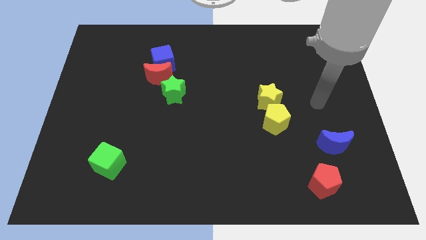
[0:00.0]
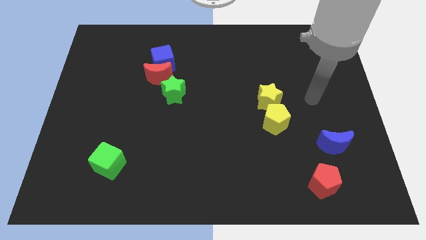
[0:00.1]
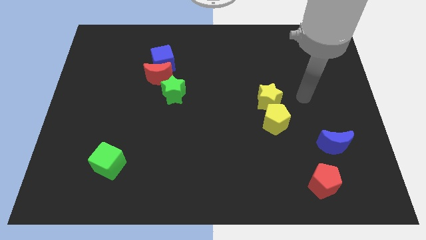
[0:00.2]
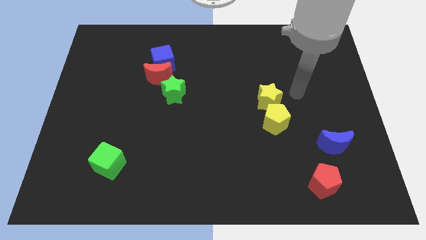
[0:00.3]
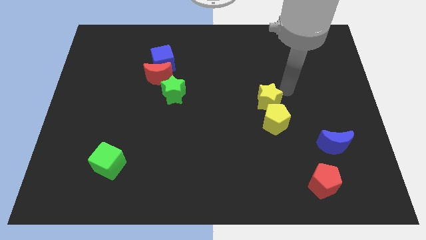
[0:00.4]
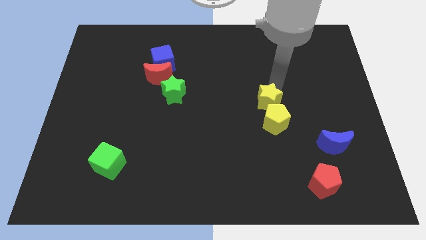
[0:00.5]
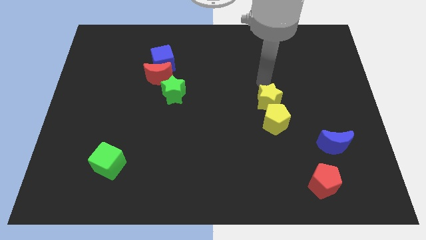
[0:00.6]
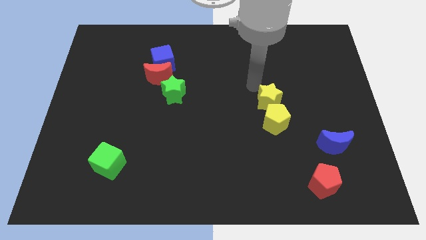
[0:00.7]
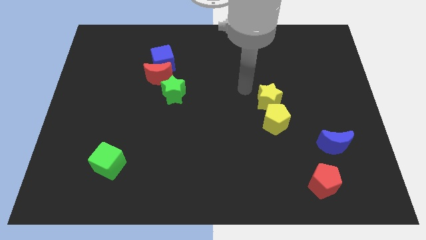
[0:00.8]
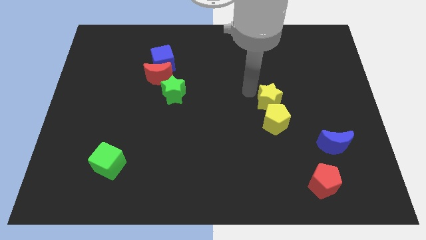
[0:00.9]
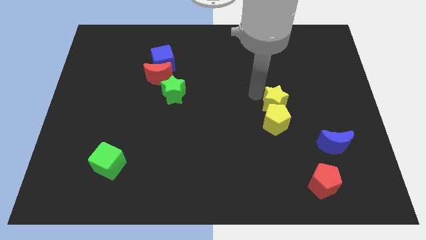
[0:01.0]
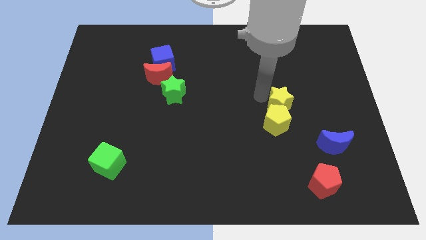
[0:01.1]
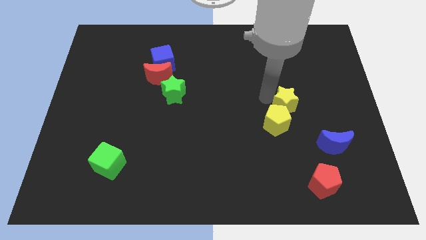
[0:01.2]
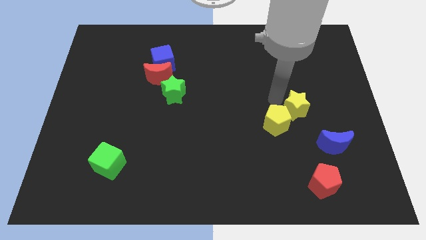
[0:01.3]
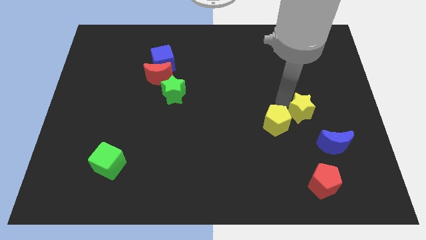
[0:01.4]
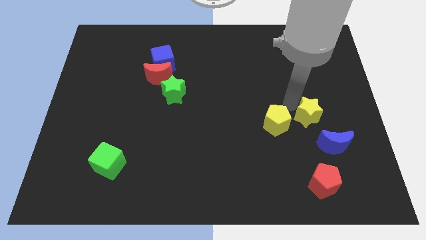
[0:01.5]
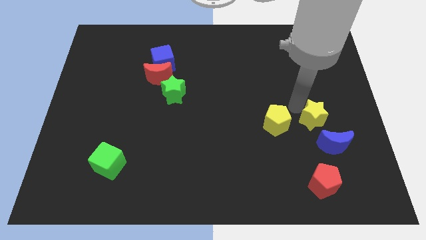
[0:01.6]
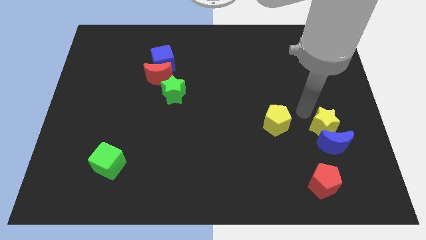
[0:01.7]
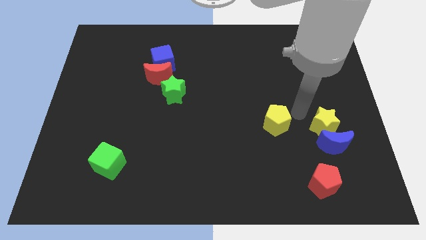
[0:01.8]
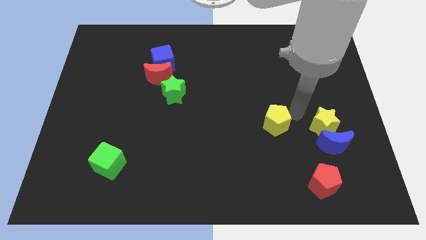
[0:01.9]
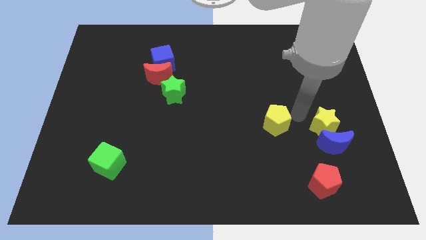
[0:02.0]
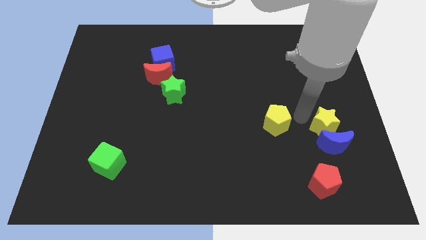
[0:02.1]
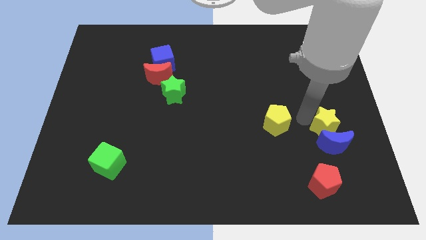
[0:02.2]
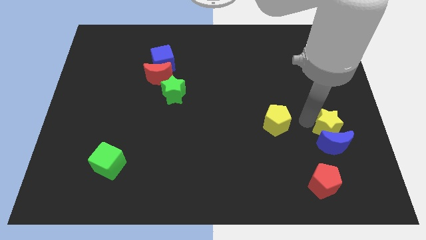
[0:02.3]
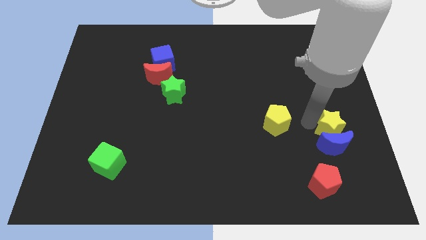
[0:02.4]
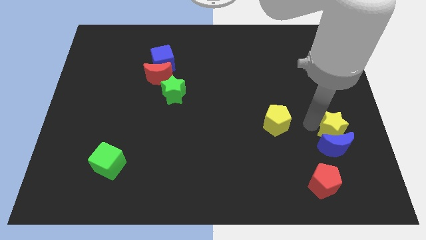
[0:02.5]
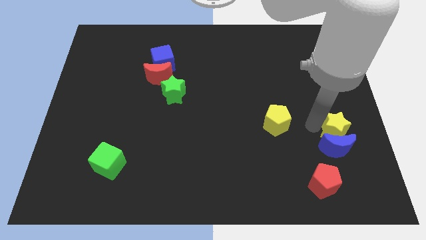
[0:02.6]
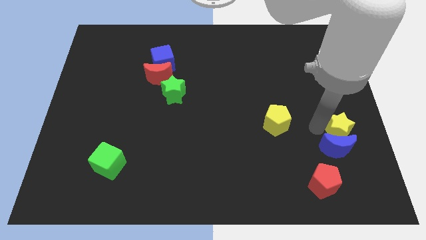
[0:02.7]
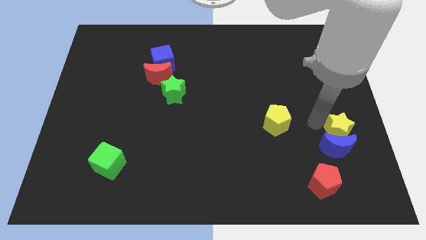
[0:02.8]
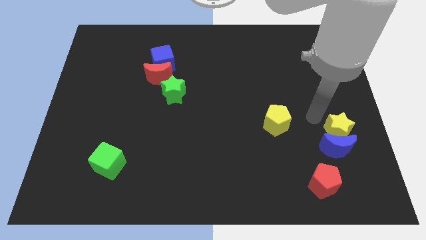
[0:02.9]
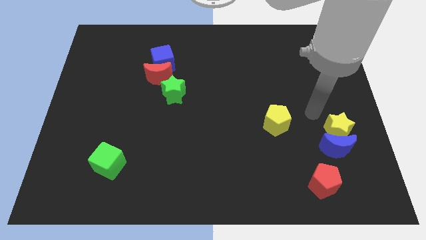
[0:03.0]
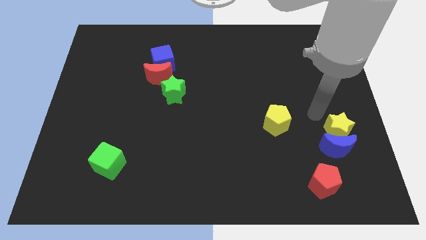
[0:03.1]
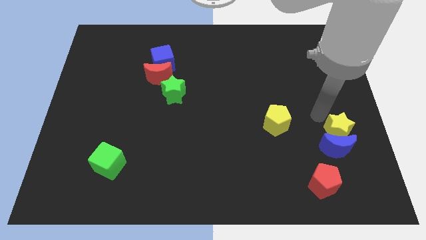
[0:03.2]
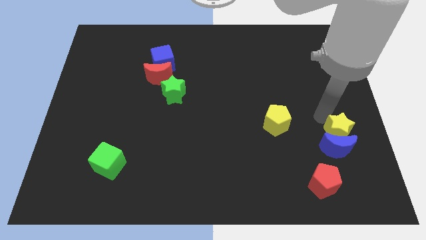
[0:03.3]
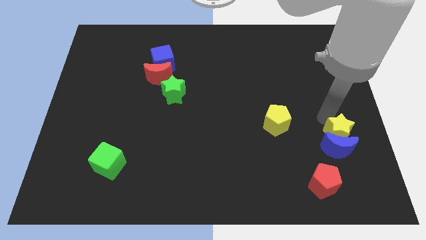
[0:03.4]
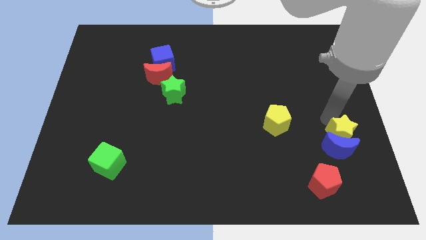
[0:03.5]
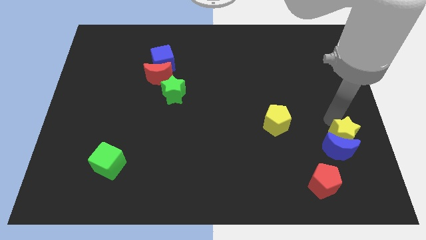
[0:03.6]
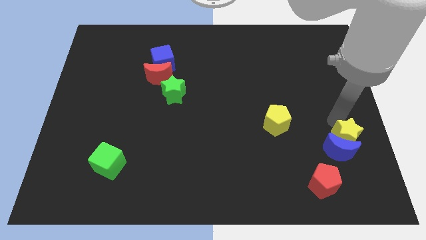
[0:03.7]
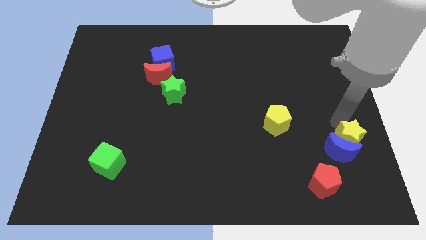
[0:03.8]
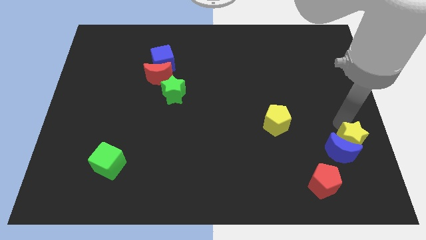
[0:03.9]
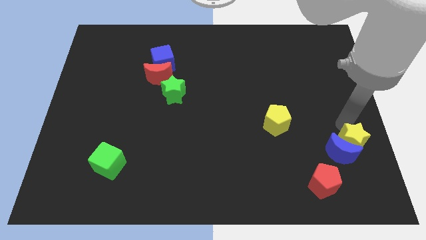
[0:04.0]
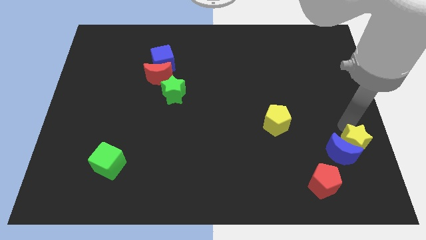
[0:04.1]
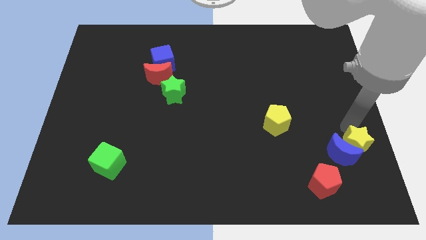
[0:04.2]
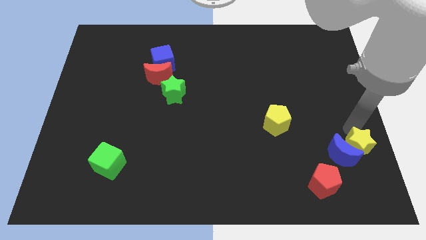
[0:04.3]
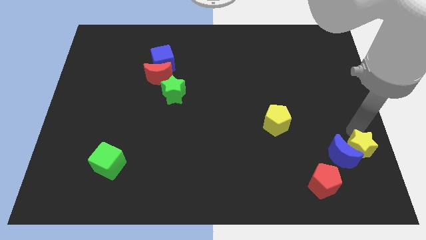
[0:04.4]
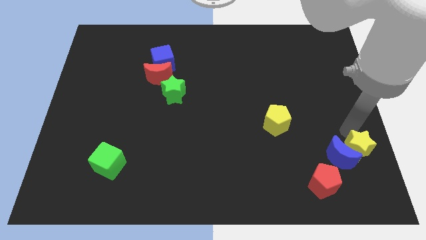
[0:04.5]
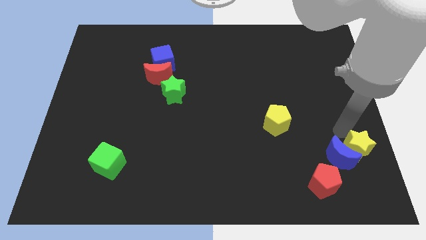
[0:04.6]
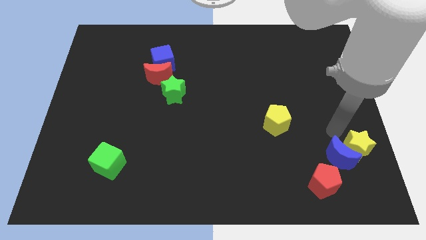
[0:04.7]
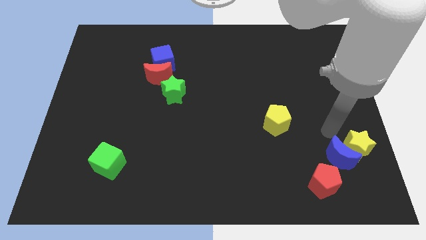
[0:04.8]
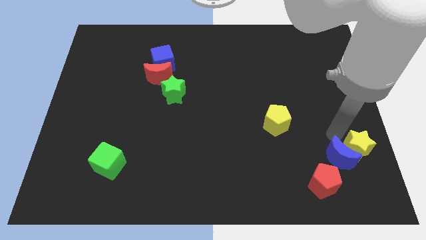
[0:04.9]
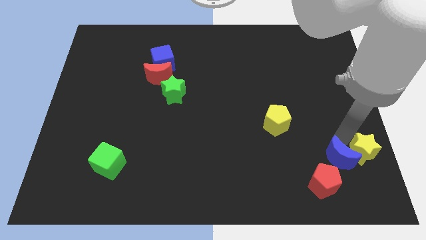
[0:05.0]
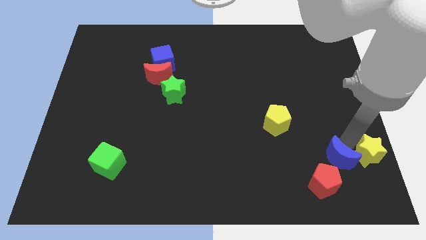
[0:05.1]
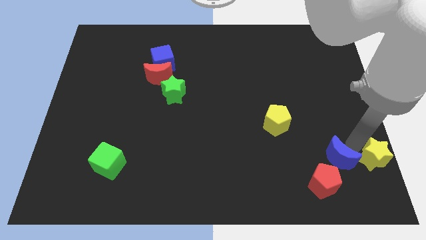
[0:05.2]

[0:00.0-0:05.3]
push the yellow star to the bottom right

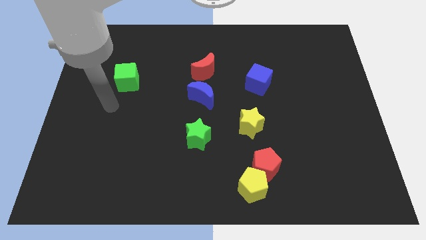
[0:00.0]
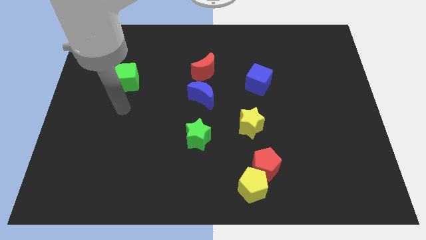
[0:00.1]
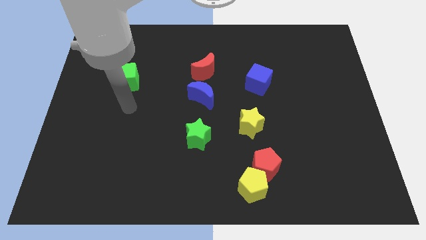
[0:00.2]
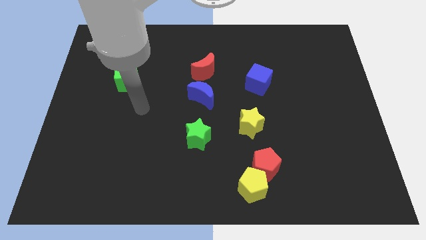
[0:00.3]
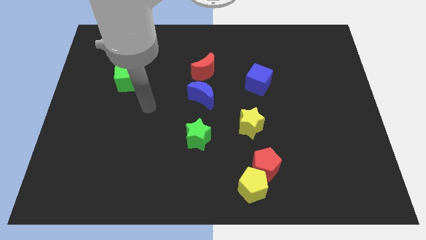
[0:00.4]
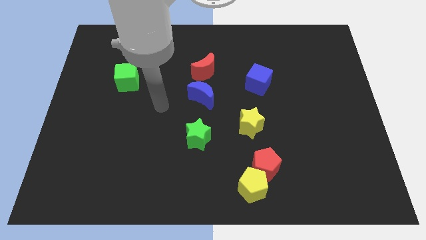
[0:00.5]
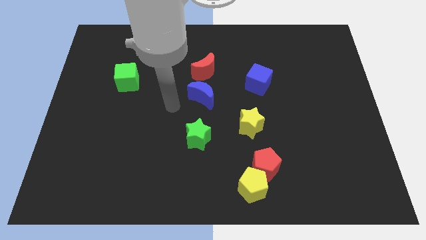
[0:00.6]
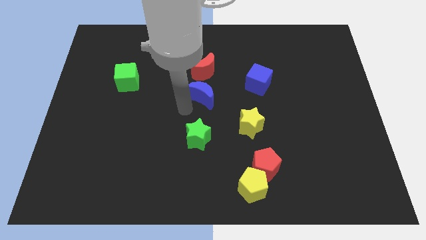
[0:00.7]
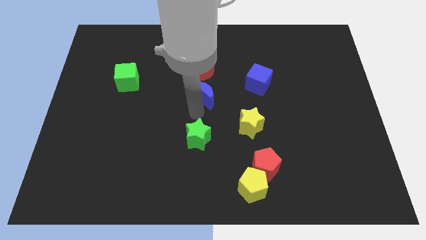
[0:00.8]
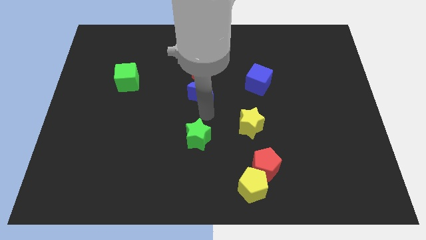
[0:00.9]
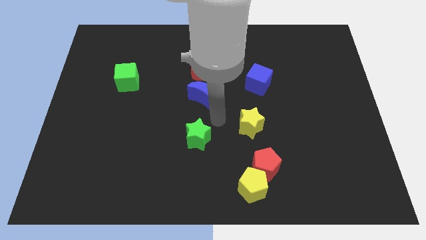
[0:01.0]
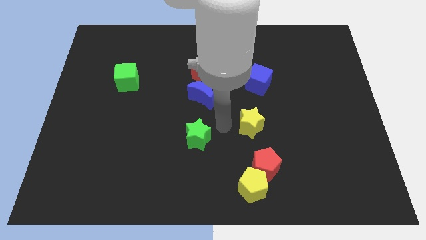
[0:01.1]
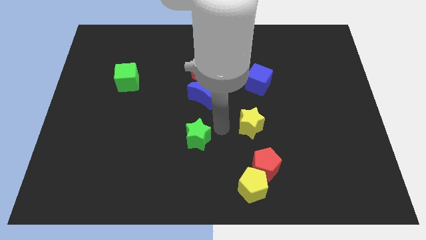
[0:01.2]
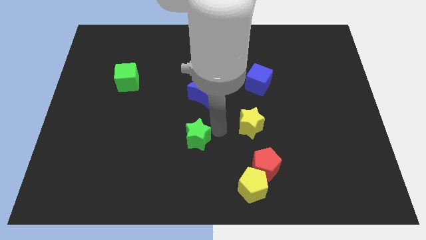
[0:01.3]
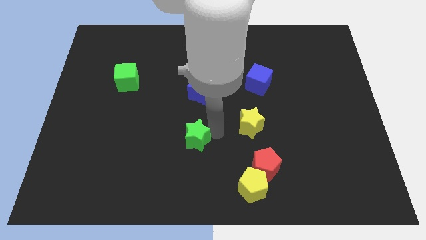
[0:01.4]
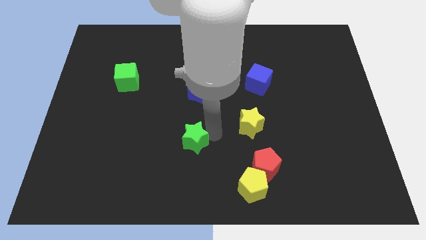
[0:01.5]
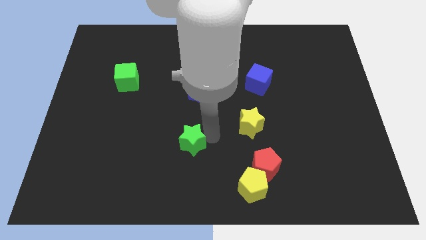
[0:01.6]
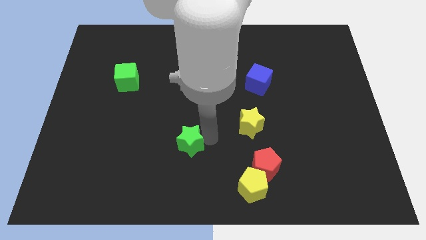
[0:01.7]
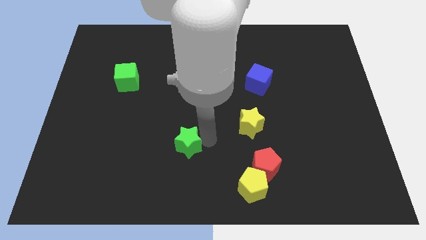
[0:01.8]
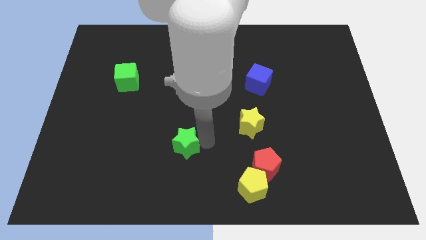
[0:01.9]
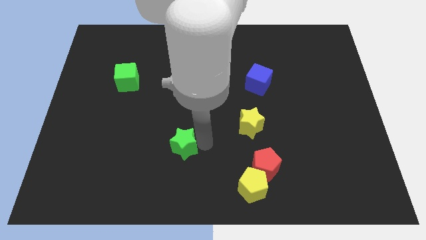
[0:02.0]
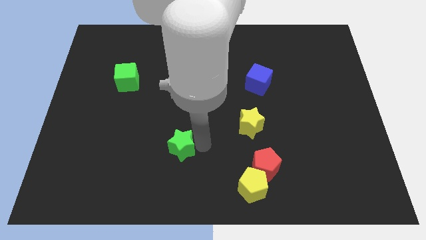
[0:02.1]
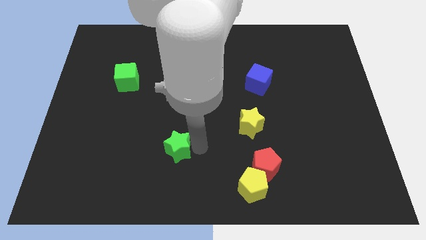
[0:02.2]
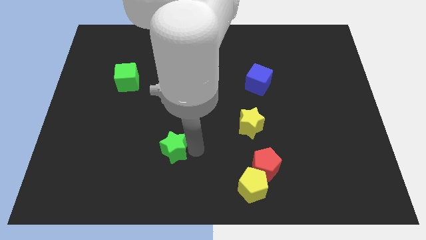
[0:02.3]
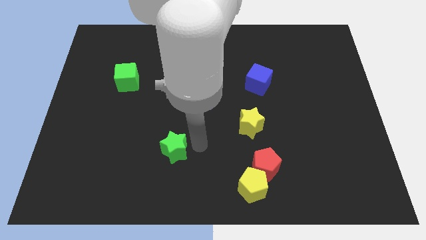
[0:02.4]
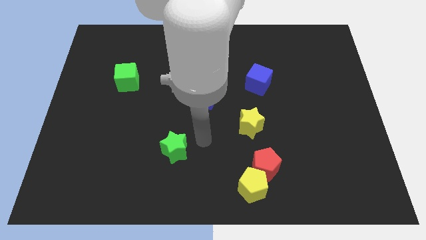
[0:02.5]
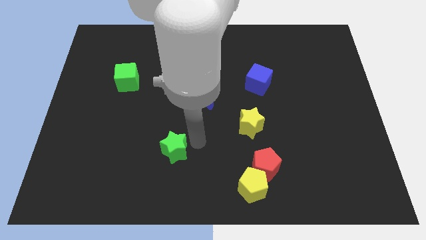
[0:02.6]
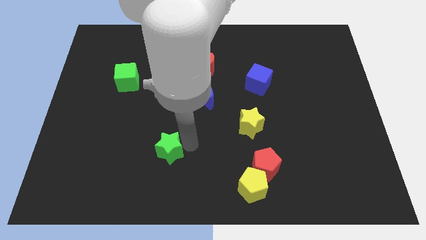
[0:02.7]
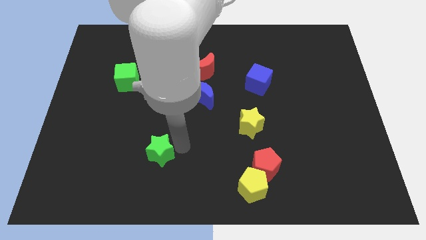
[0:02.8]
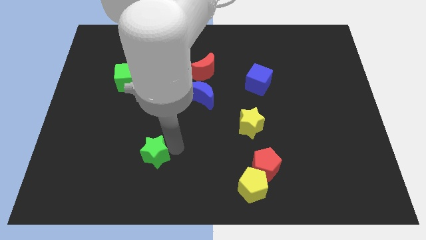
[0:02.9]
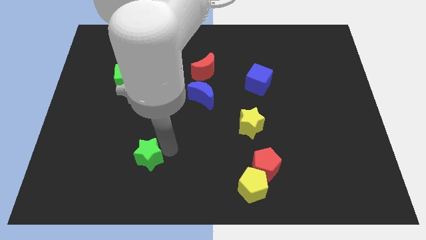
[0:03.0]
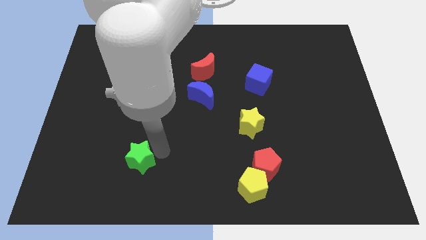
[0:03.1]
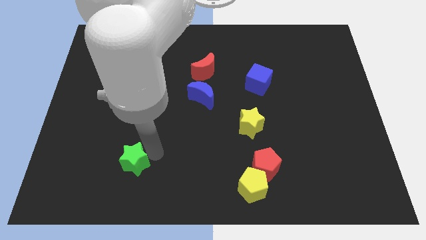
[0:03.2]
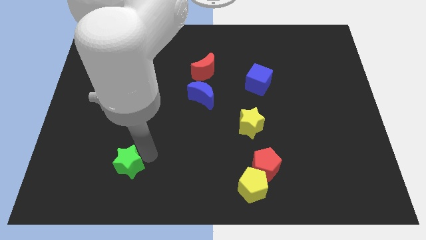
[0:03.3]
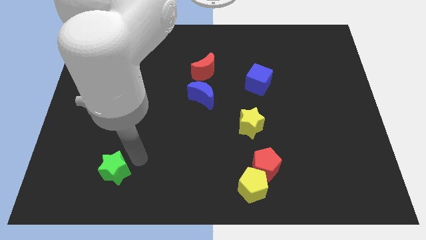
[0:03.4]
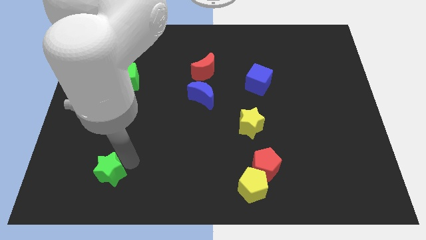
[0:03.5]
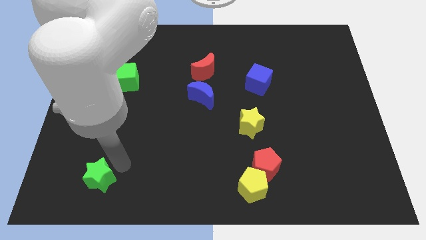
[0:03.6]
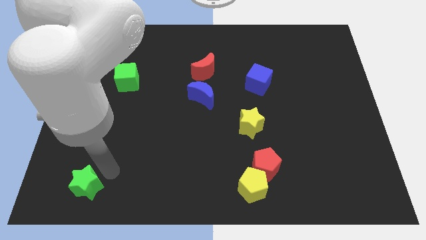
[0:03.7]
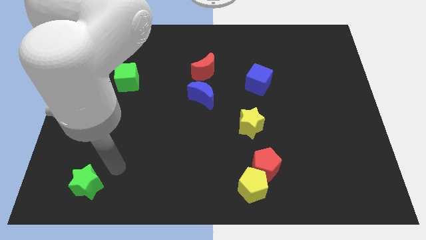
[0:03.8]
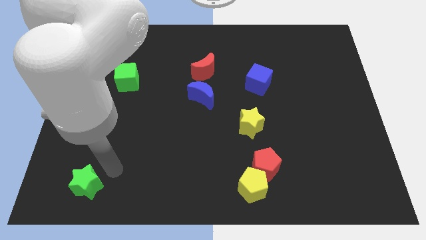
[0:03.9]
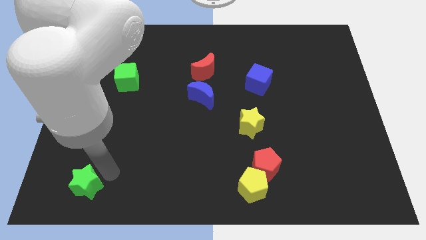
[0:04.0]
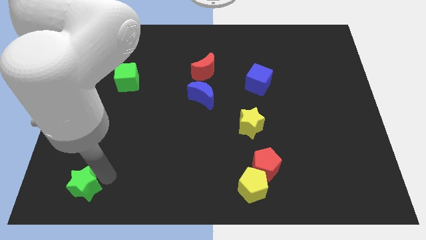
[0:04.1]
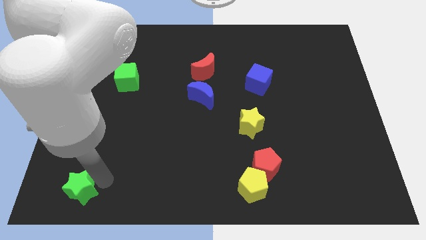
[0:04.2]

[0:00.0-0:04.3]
slide the green star to the bottom left of the board
